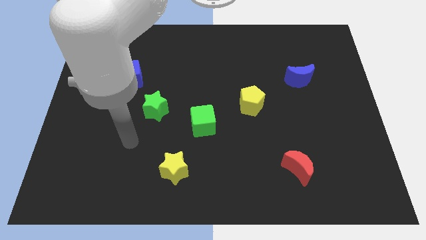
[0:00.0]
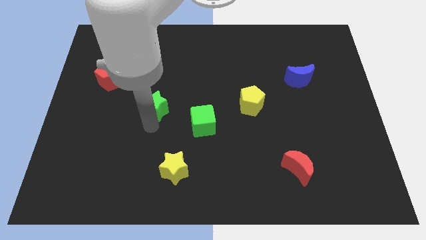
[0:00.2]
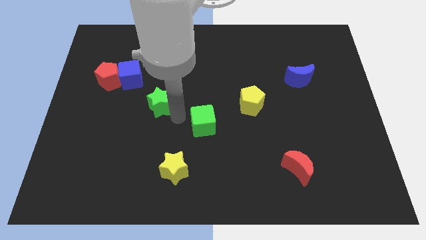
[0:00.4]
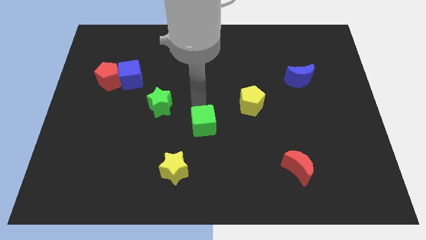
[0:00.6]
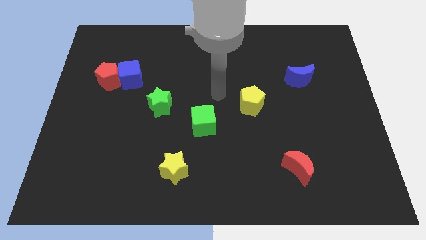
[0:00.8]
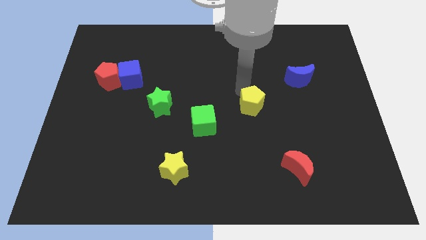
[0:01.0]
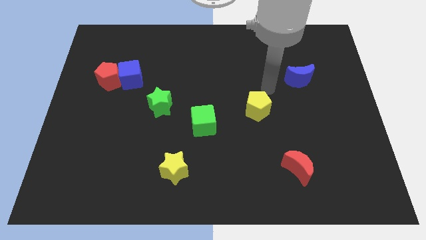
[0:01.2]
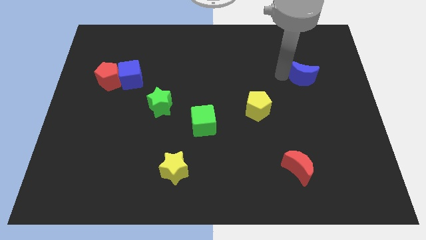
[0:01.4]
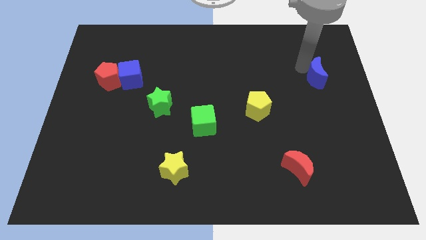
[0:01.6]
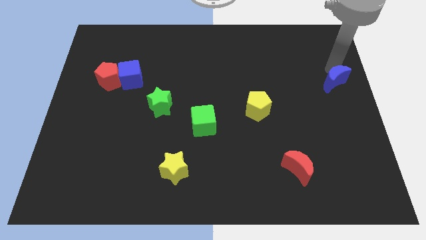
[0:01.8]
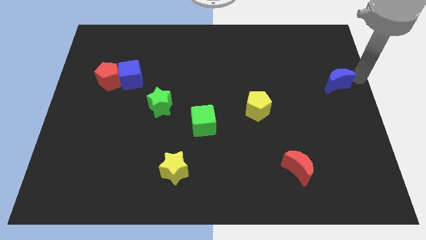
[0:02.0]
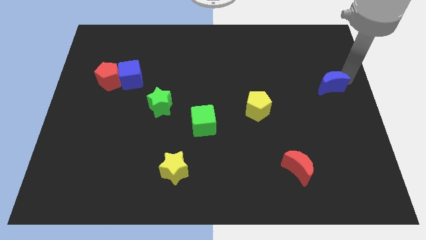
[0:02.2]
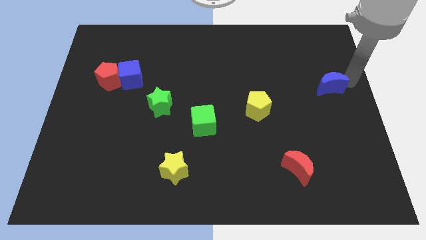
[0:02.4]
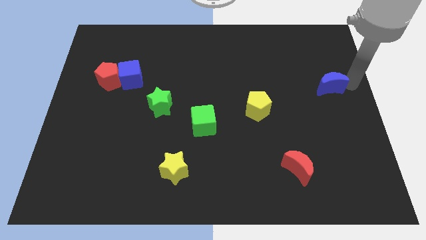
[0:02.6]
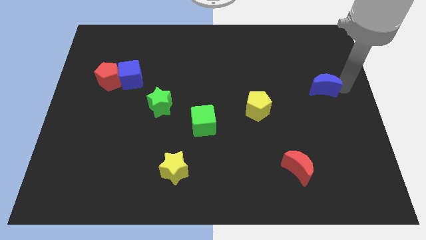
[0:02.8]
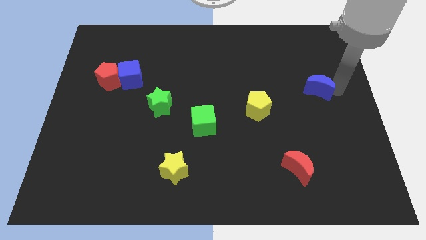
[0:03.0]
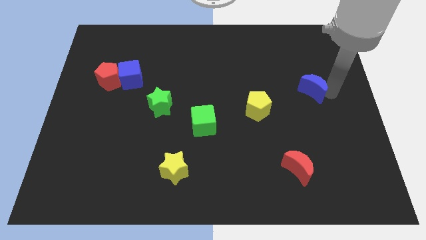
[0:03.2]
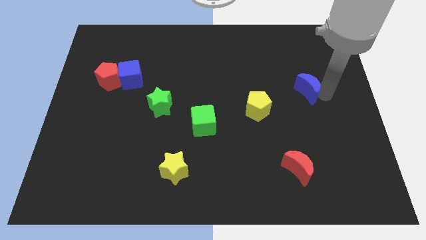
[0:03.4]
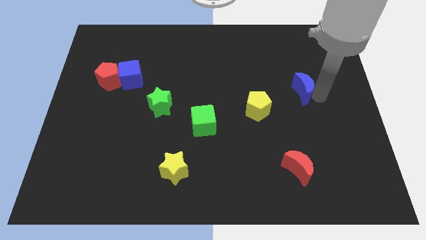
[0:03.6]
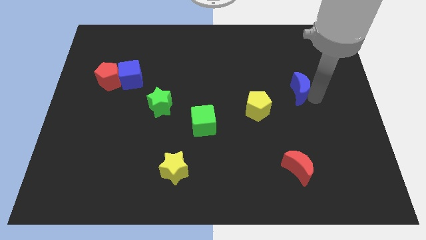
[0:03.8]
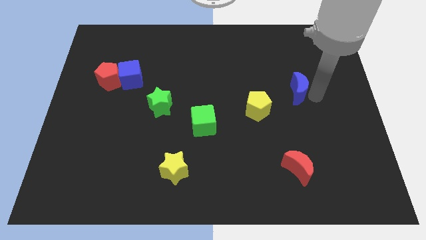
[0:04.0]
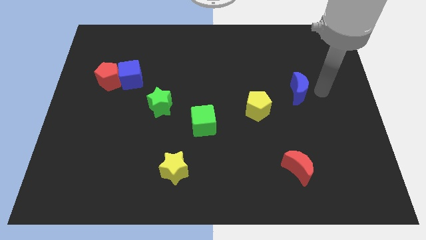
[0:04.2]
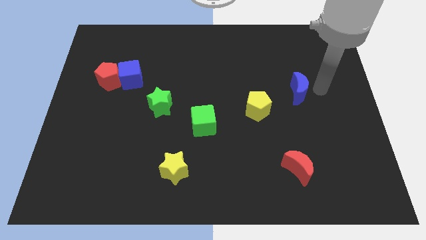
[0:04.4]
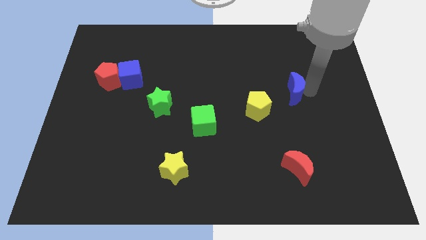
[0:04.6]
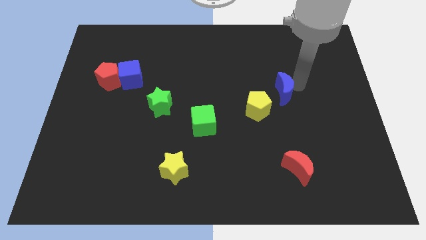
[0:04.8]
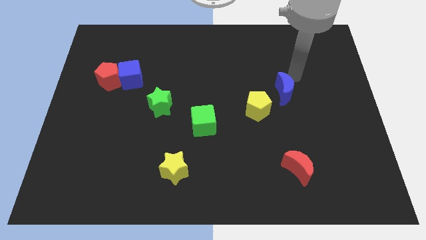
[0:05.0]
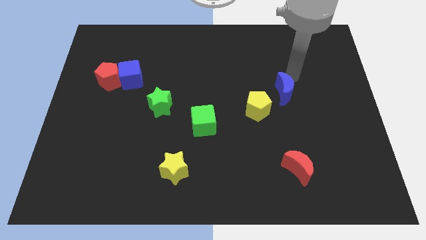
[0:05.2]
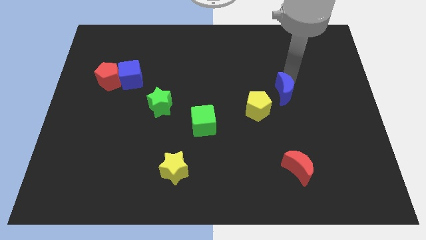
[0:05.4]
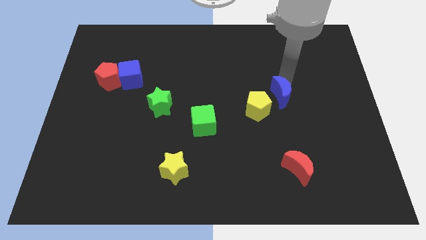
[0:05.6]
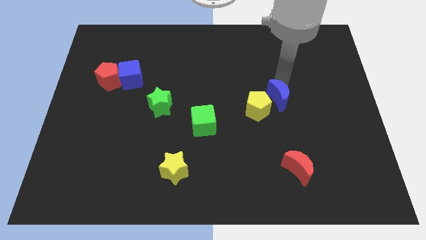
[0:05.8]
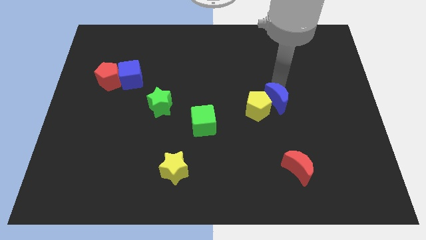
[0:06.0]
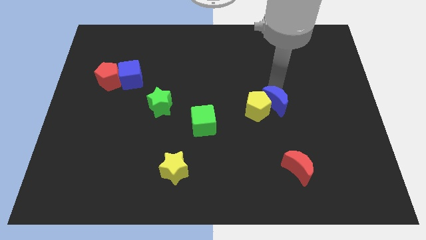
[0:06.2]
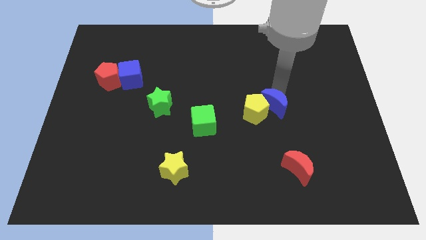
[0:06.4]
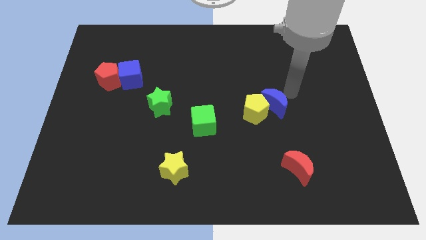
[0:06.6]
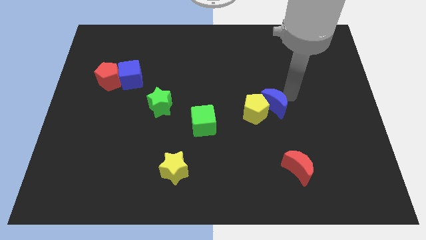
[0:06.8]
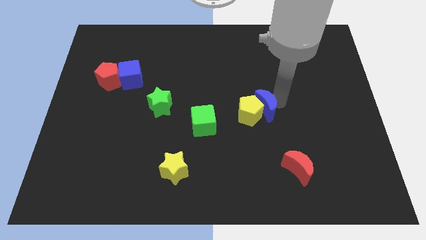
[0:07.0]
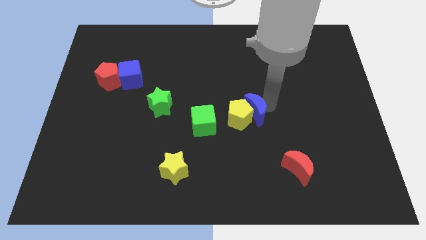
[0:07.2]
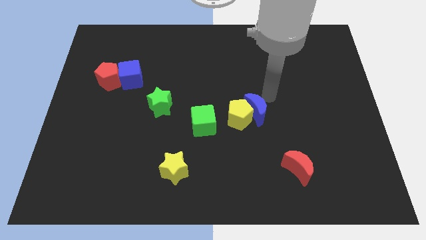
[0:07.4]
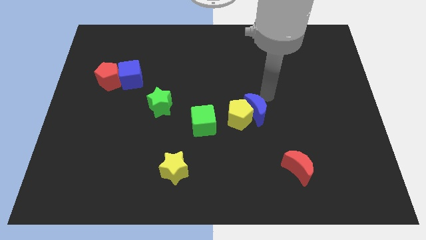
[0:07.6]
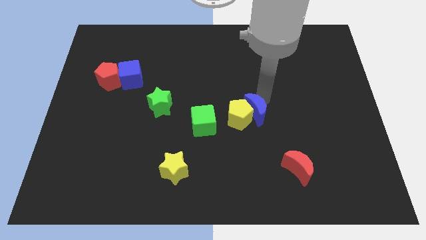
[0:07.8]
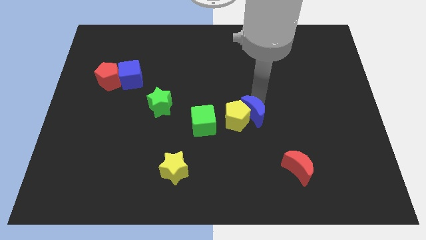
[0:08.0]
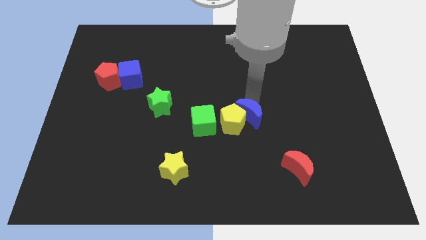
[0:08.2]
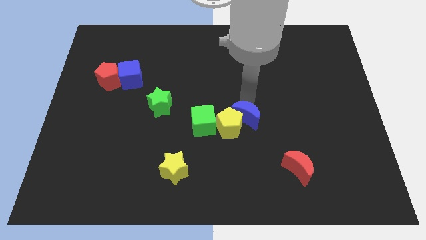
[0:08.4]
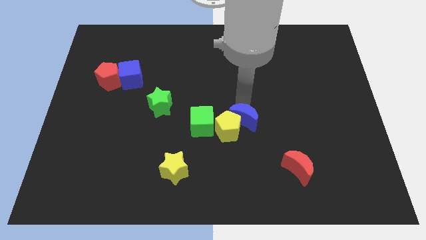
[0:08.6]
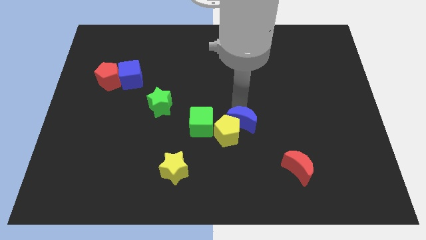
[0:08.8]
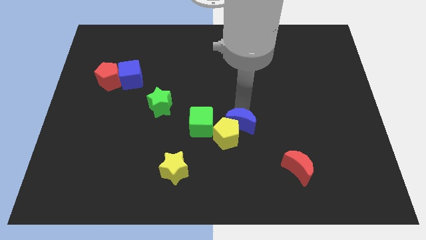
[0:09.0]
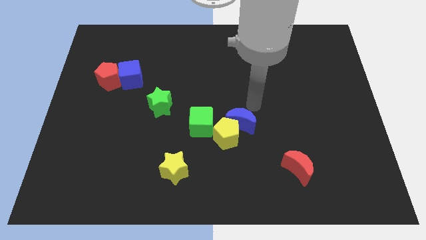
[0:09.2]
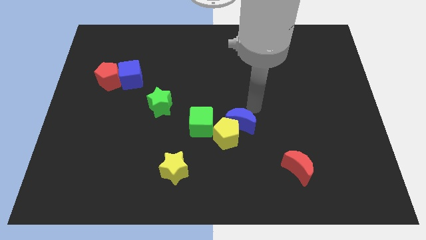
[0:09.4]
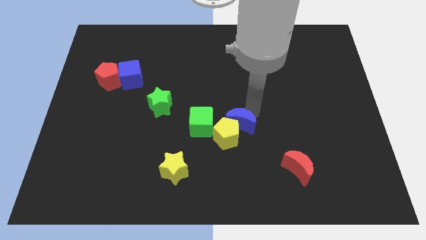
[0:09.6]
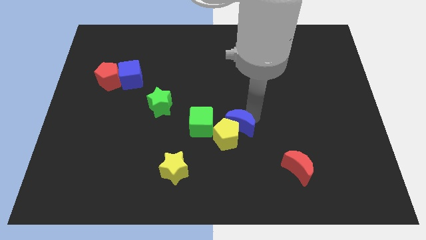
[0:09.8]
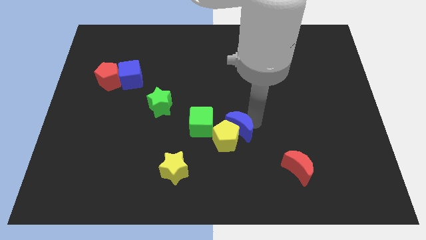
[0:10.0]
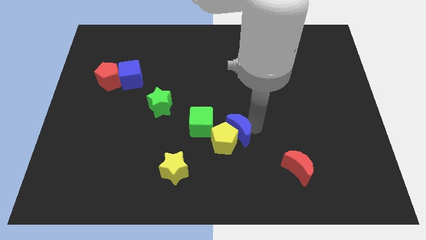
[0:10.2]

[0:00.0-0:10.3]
move the blue moon to the bottom right side of the green cube

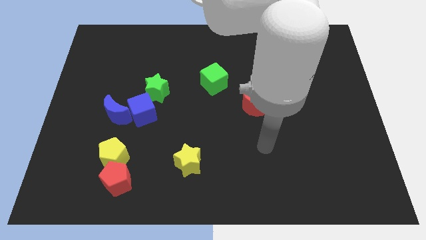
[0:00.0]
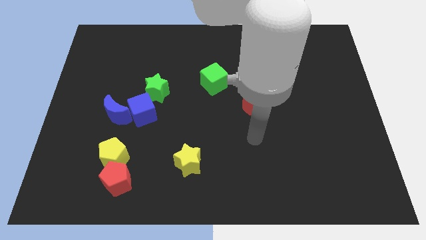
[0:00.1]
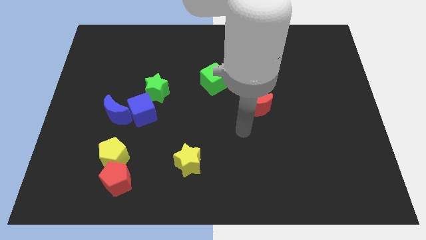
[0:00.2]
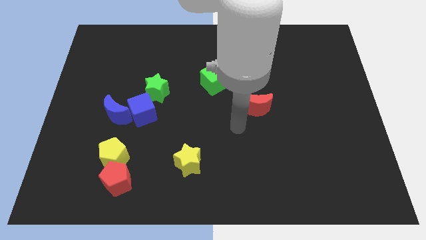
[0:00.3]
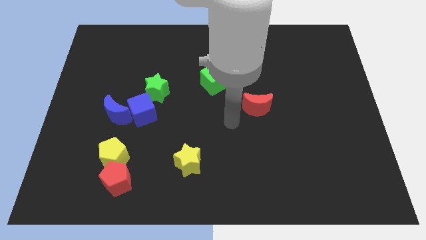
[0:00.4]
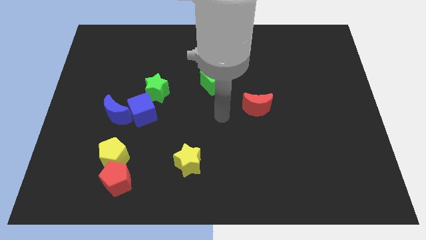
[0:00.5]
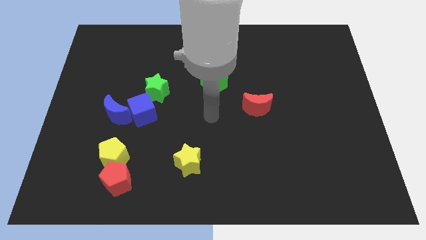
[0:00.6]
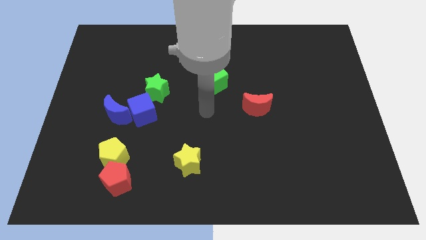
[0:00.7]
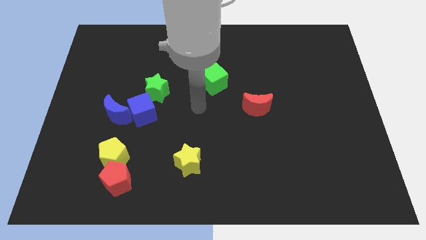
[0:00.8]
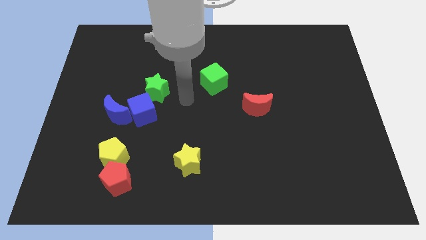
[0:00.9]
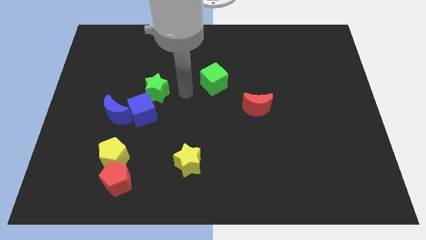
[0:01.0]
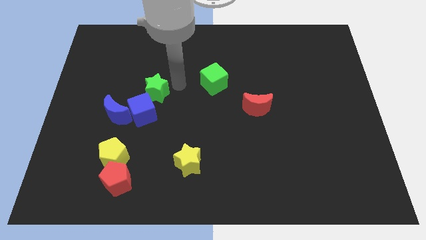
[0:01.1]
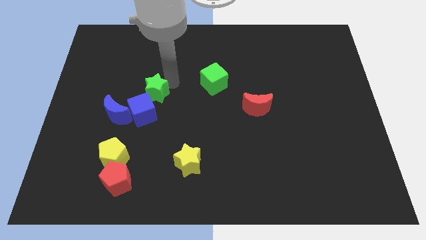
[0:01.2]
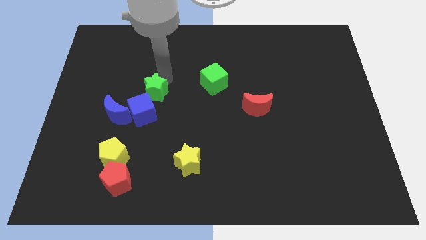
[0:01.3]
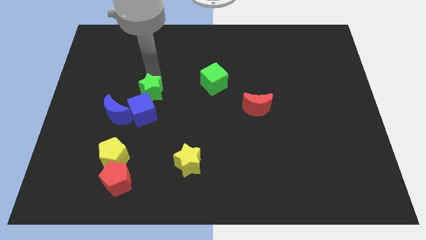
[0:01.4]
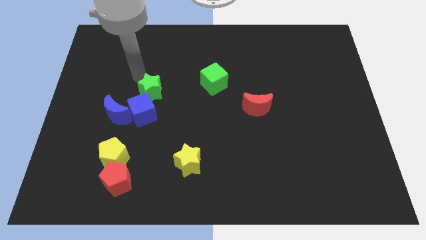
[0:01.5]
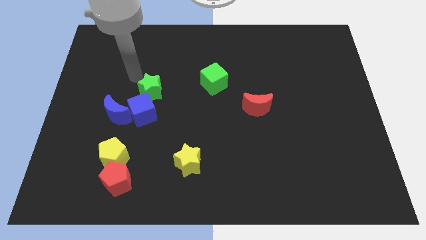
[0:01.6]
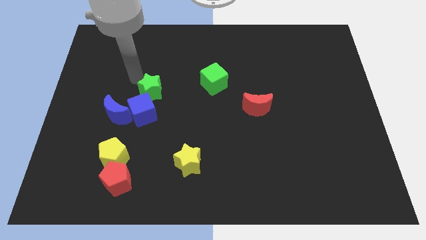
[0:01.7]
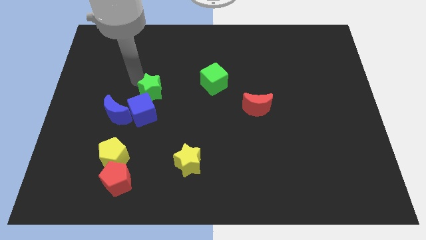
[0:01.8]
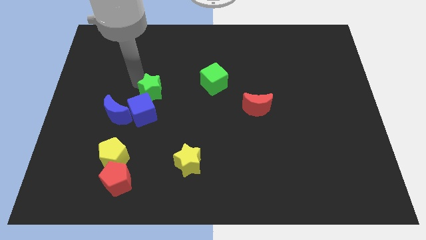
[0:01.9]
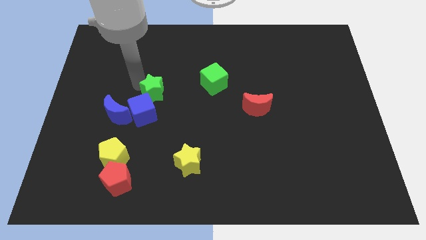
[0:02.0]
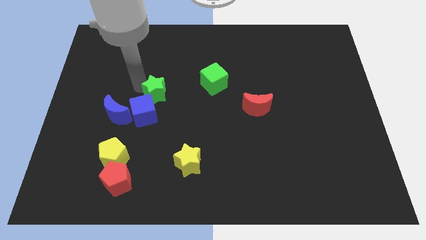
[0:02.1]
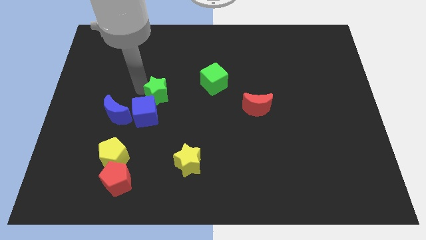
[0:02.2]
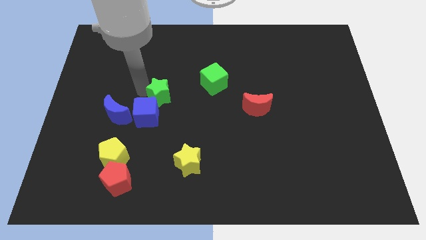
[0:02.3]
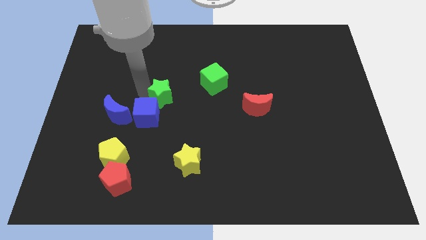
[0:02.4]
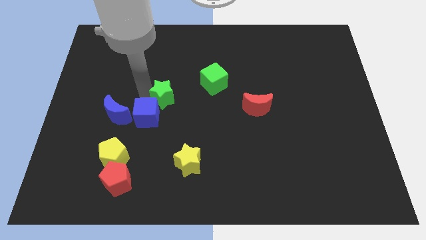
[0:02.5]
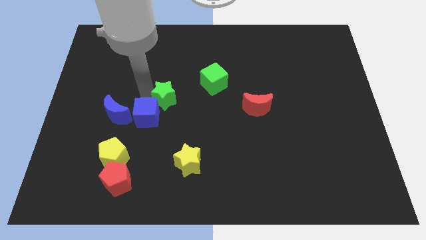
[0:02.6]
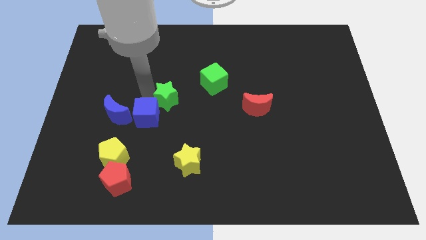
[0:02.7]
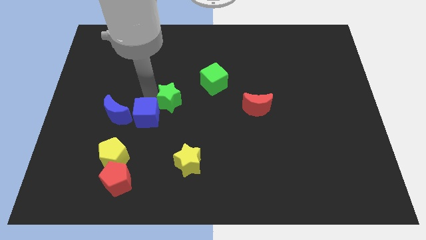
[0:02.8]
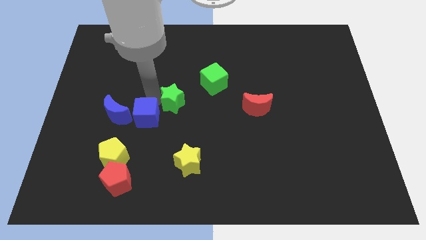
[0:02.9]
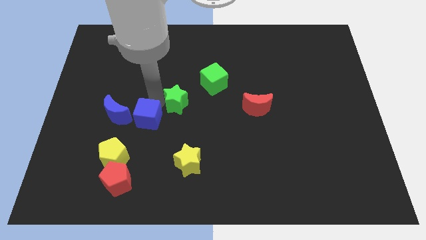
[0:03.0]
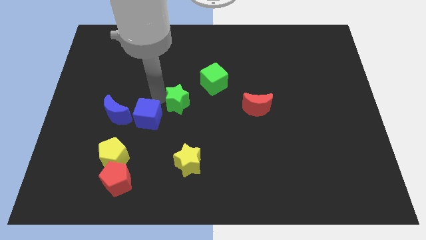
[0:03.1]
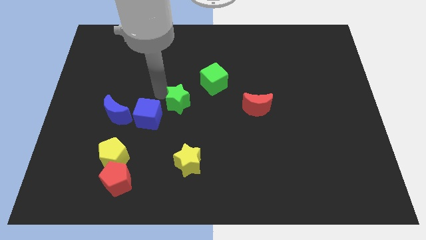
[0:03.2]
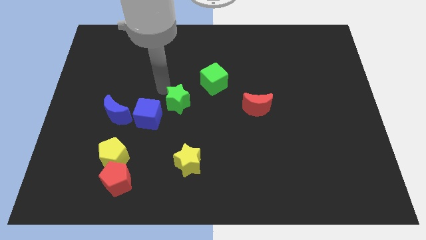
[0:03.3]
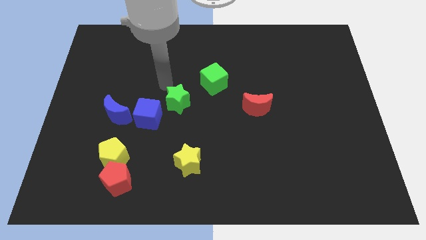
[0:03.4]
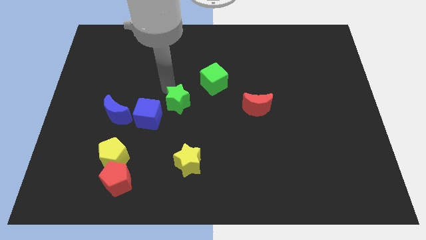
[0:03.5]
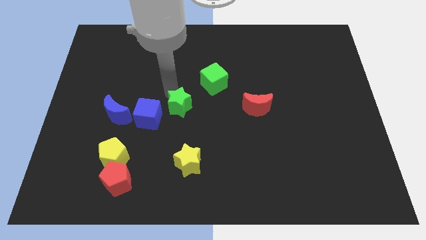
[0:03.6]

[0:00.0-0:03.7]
put the green star to the top side of the yellow star
